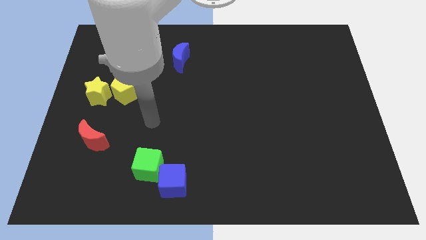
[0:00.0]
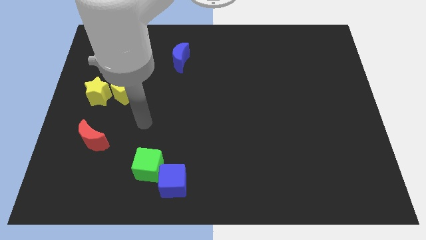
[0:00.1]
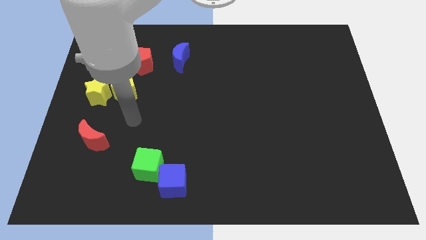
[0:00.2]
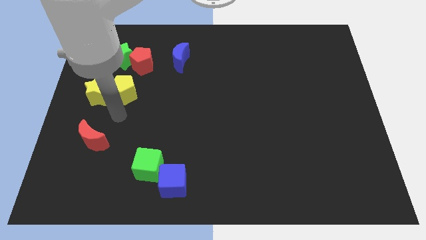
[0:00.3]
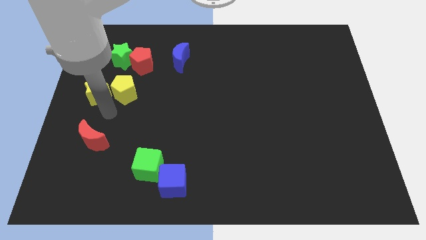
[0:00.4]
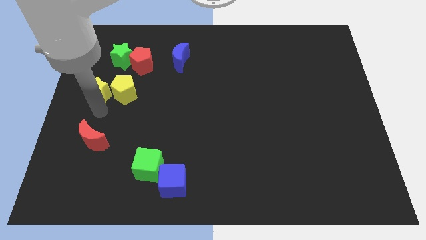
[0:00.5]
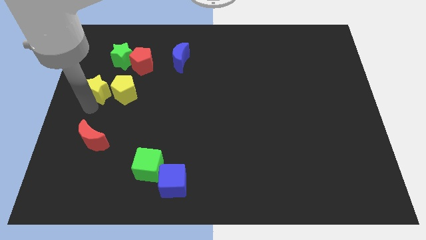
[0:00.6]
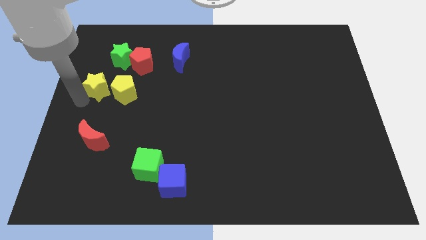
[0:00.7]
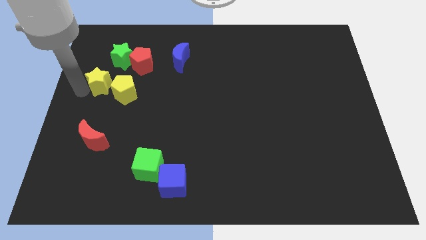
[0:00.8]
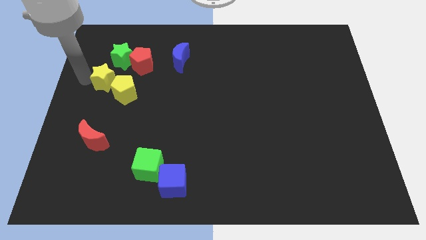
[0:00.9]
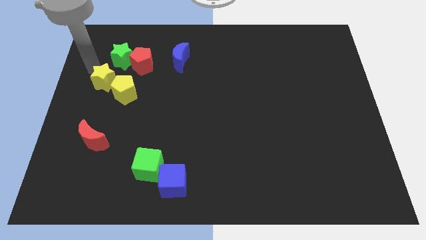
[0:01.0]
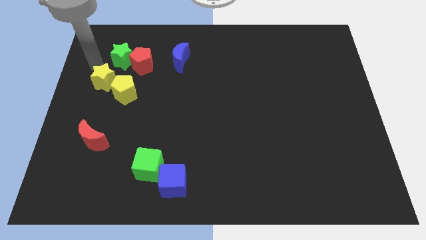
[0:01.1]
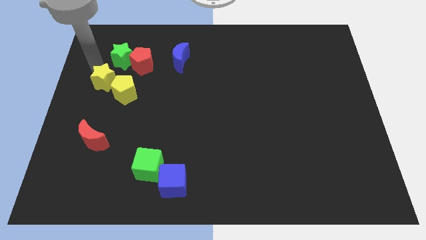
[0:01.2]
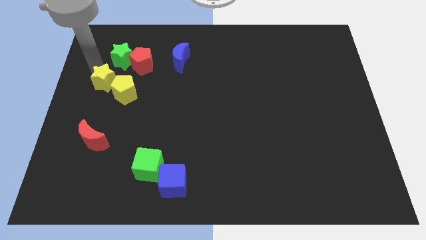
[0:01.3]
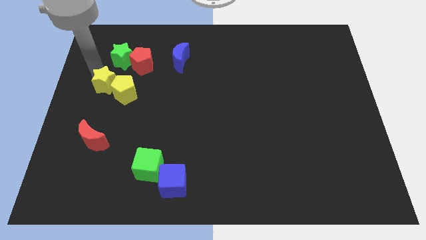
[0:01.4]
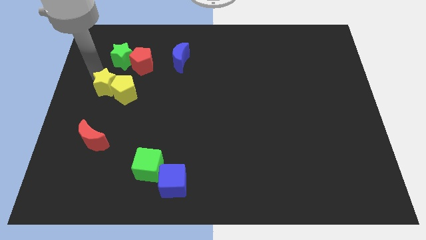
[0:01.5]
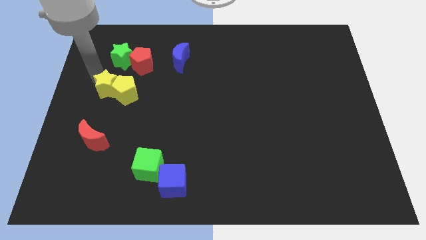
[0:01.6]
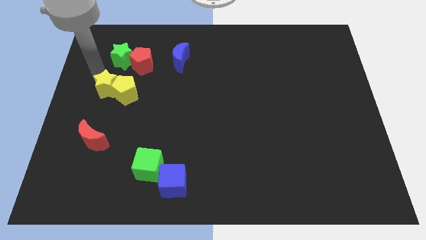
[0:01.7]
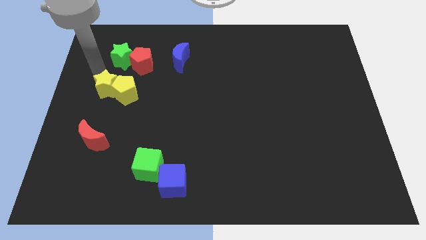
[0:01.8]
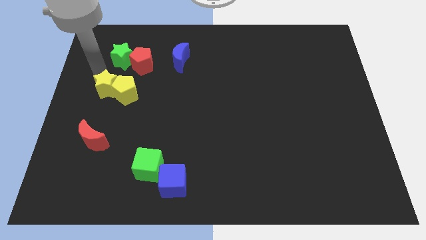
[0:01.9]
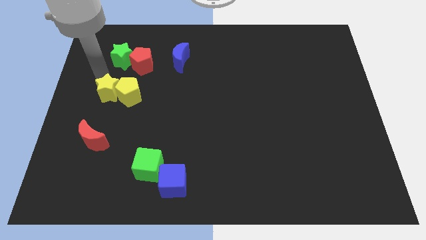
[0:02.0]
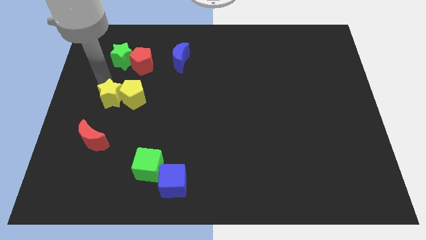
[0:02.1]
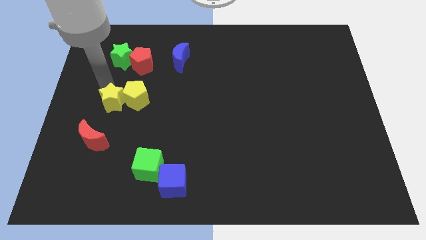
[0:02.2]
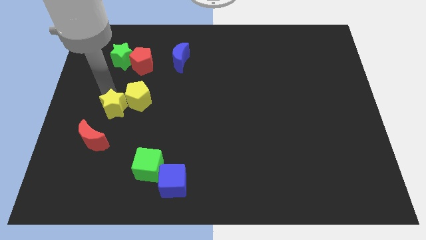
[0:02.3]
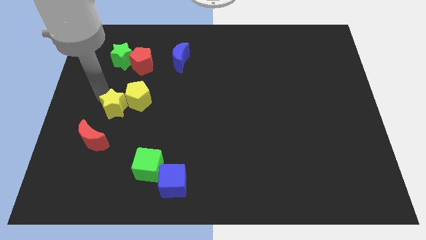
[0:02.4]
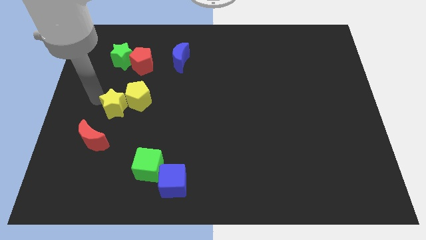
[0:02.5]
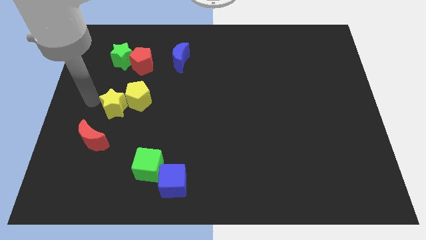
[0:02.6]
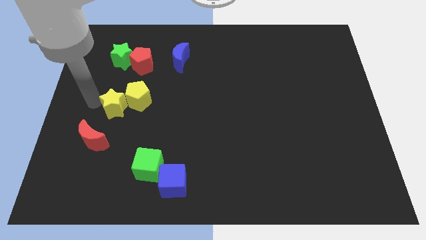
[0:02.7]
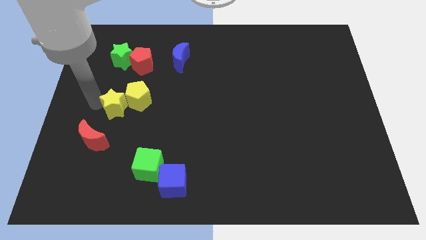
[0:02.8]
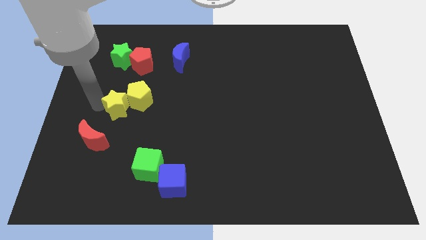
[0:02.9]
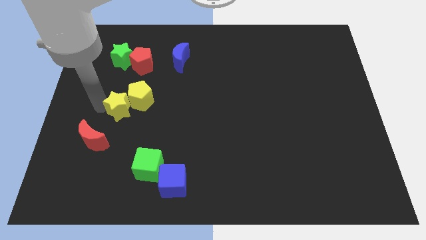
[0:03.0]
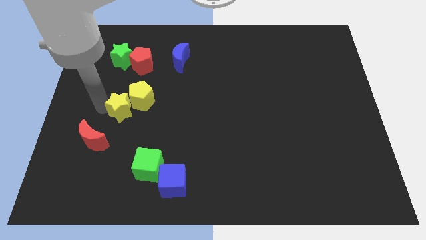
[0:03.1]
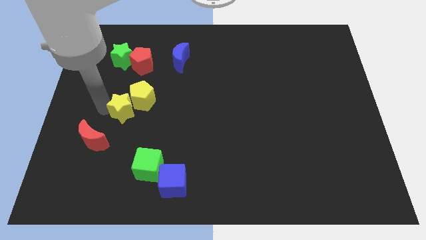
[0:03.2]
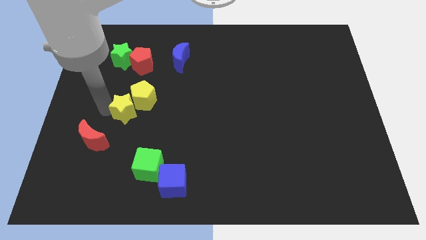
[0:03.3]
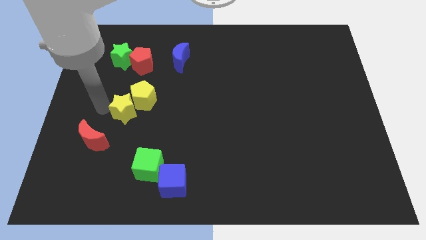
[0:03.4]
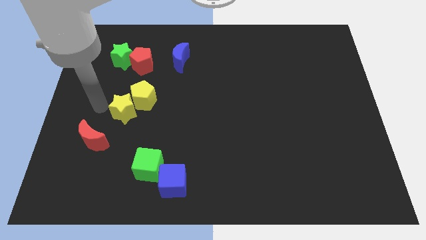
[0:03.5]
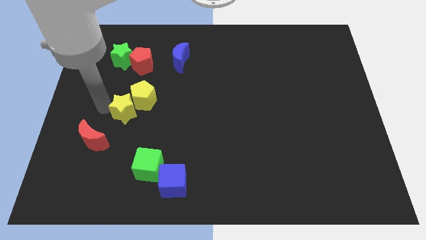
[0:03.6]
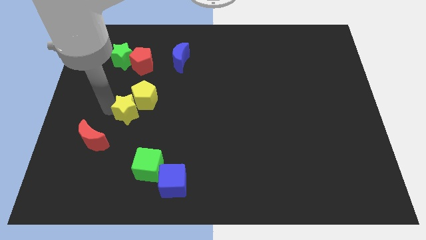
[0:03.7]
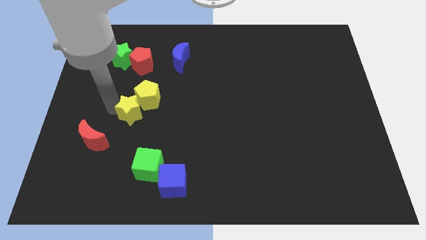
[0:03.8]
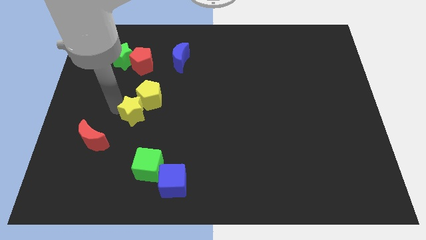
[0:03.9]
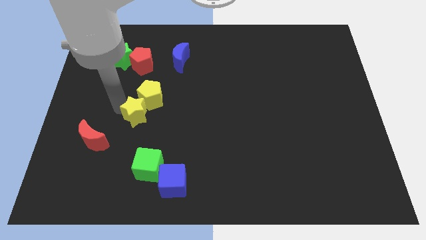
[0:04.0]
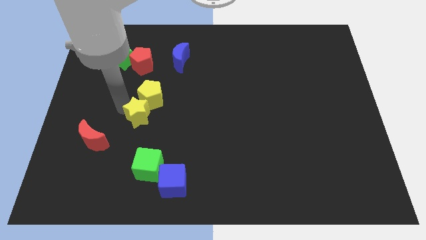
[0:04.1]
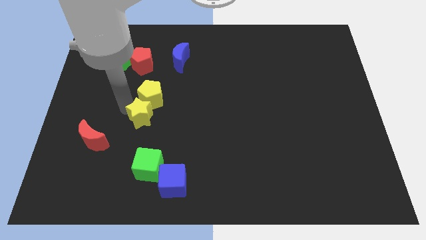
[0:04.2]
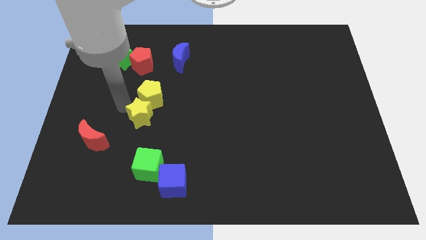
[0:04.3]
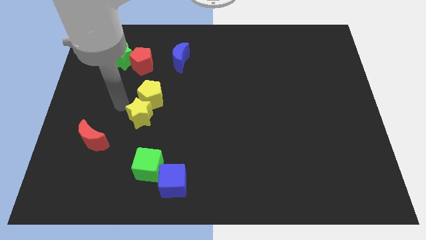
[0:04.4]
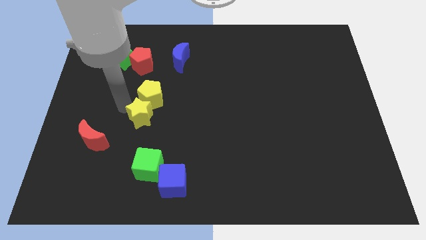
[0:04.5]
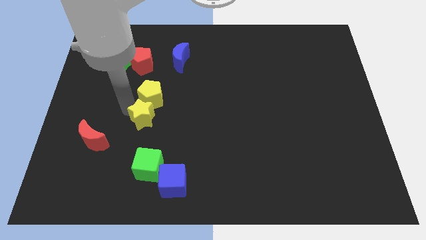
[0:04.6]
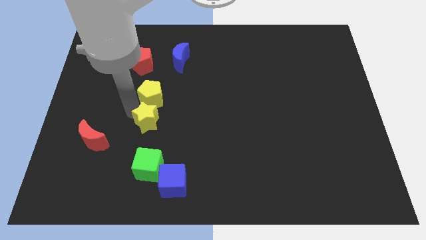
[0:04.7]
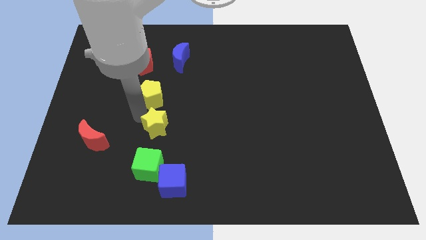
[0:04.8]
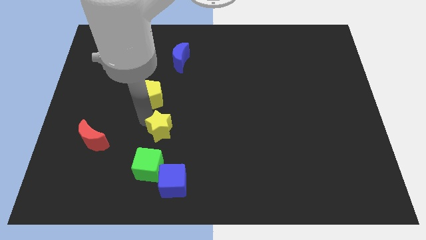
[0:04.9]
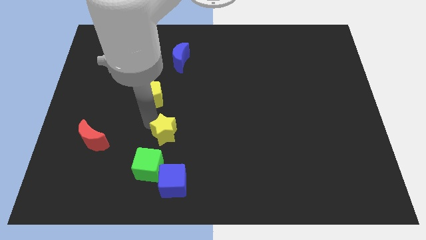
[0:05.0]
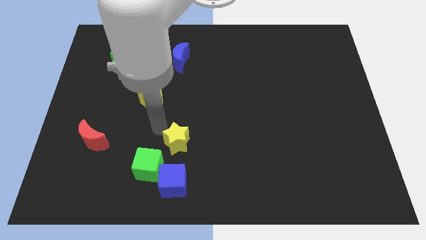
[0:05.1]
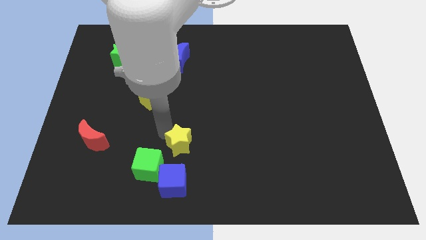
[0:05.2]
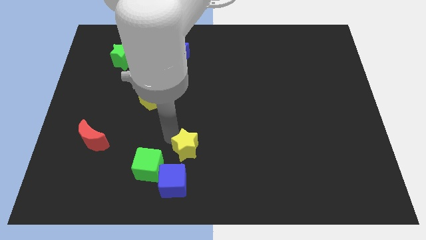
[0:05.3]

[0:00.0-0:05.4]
push the yellow star diagonally up and to the right of the blue cube

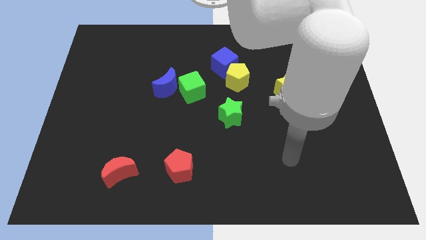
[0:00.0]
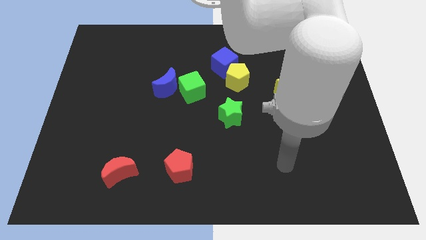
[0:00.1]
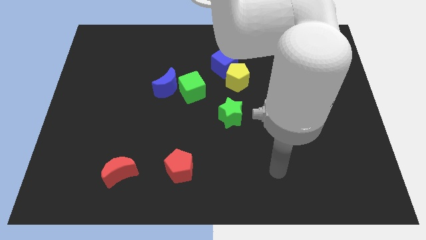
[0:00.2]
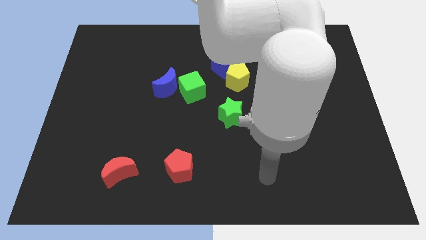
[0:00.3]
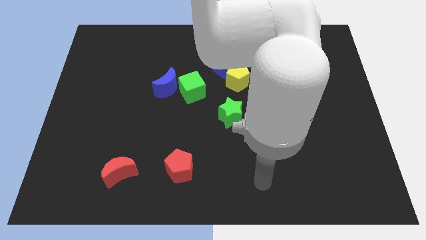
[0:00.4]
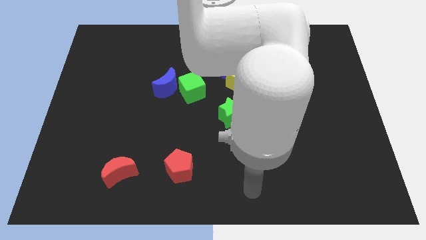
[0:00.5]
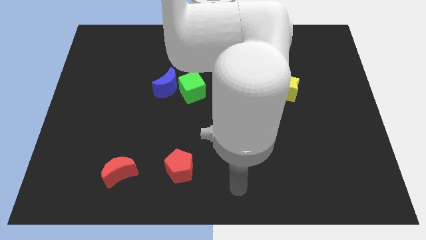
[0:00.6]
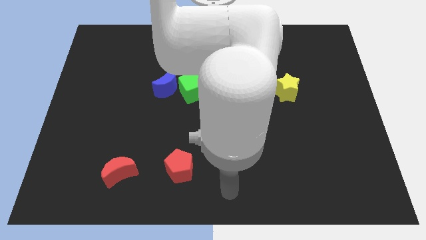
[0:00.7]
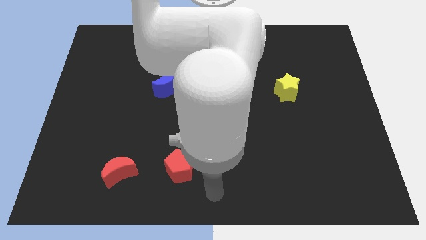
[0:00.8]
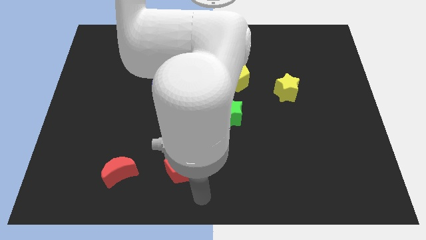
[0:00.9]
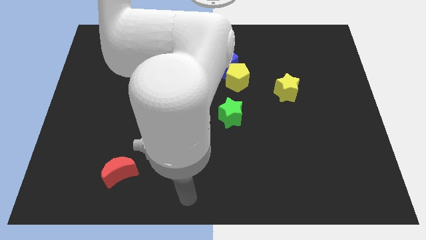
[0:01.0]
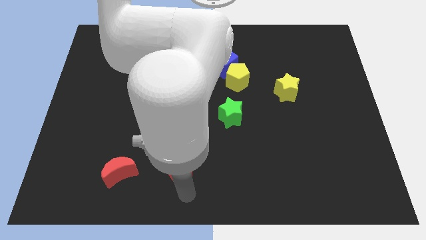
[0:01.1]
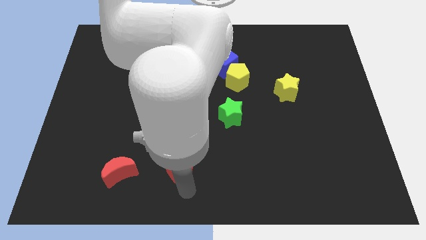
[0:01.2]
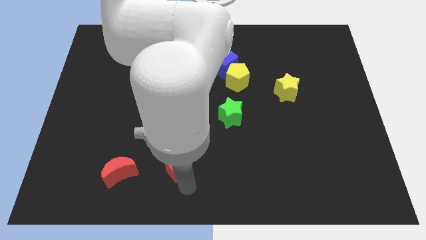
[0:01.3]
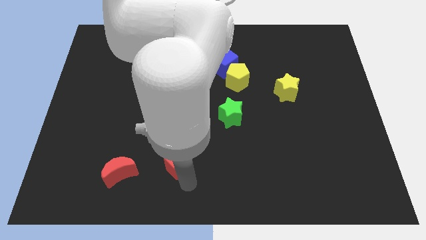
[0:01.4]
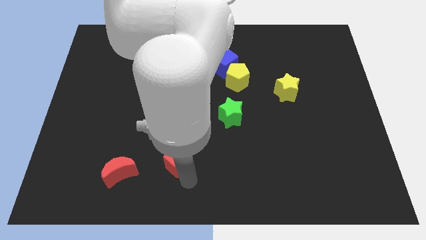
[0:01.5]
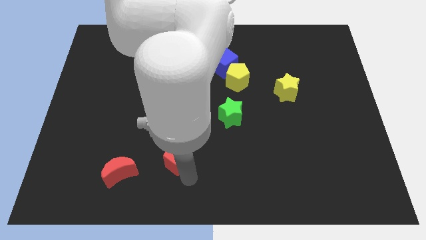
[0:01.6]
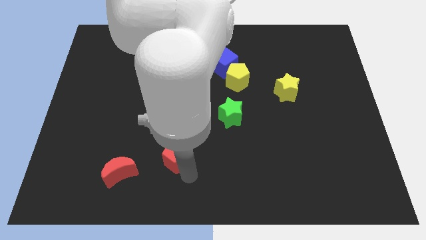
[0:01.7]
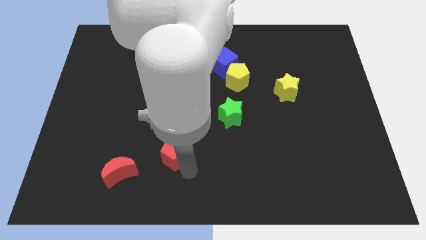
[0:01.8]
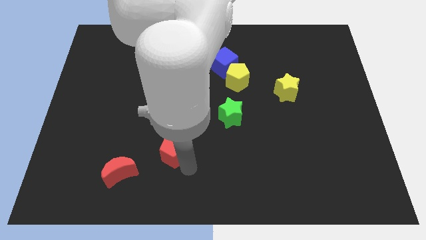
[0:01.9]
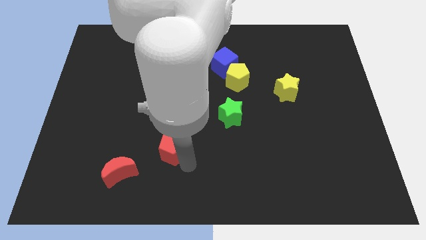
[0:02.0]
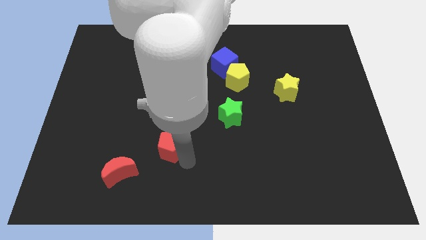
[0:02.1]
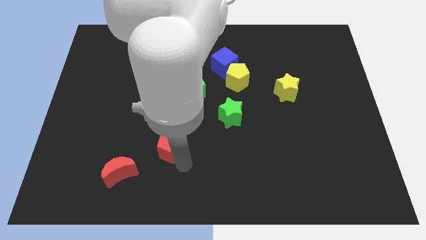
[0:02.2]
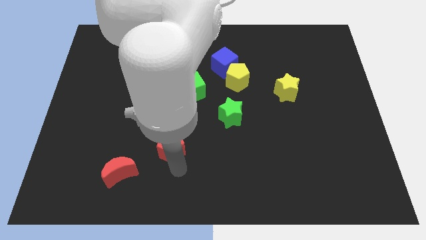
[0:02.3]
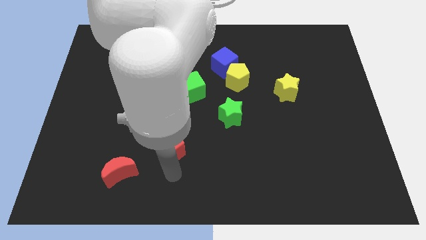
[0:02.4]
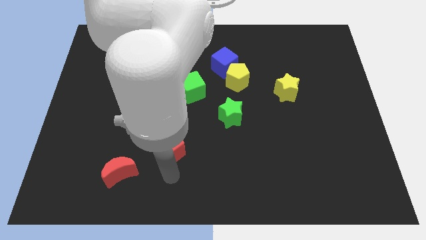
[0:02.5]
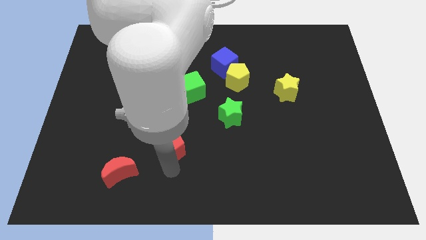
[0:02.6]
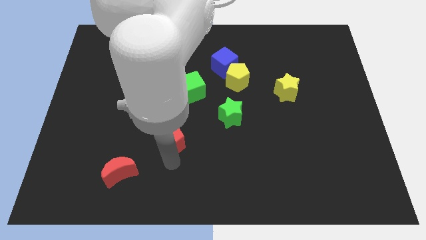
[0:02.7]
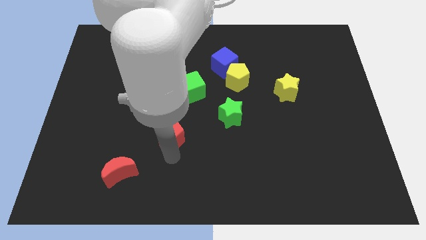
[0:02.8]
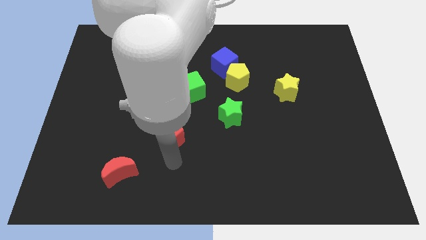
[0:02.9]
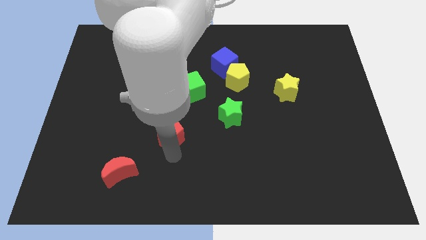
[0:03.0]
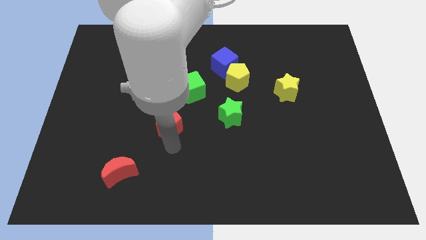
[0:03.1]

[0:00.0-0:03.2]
move the red pentagon to the bottom left side of the green cube
